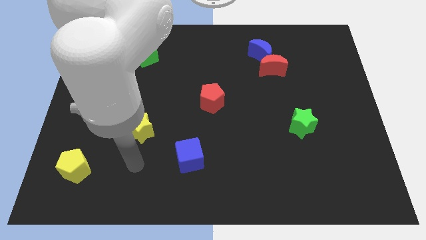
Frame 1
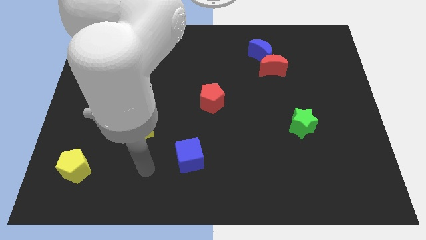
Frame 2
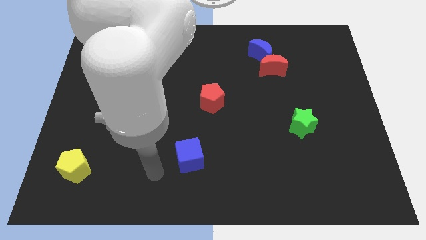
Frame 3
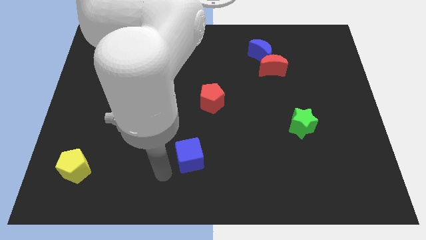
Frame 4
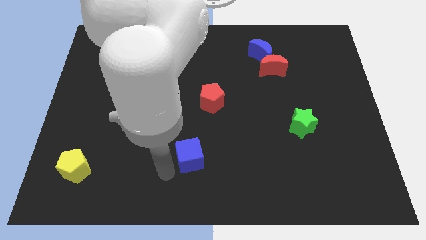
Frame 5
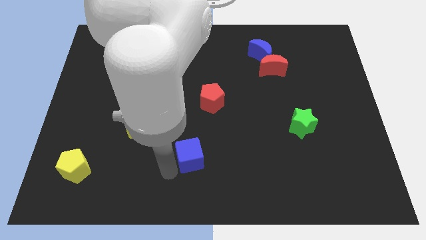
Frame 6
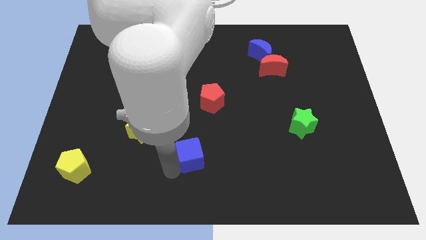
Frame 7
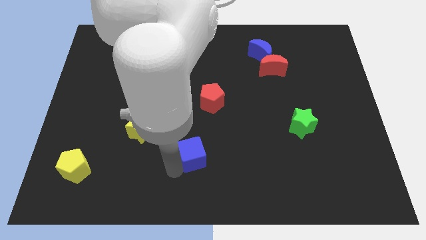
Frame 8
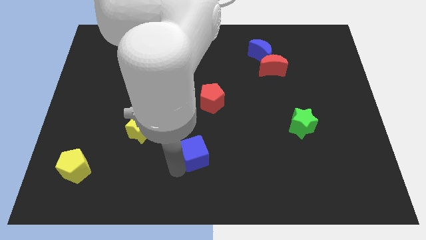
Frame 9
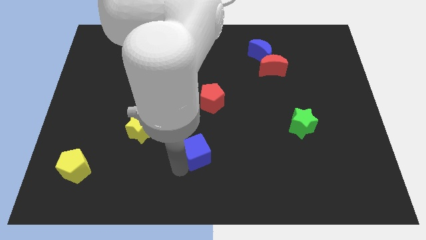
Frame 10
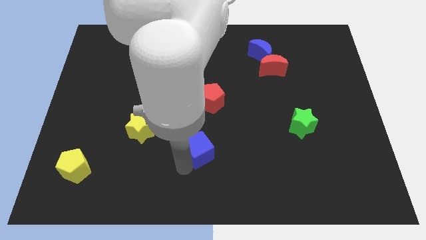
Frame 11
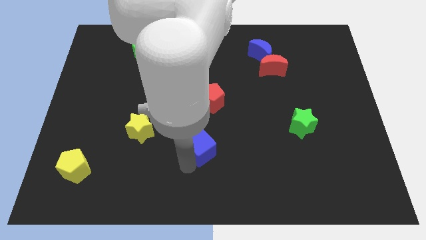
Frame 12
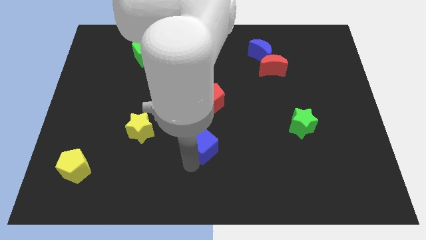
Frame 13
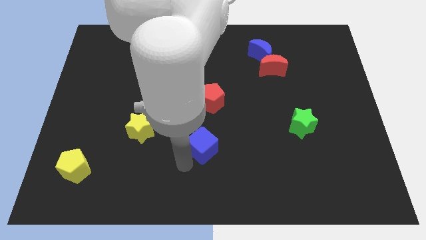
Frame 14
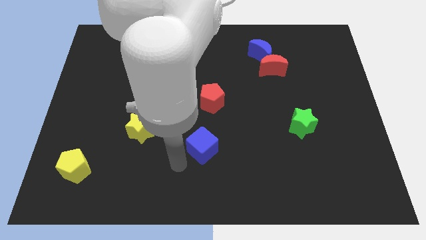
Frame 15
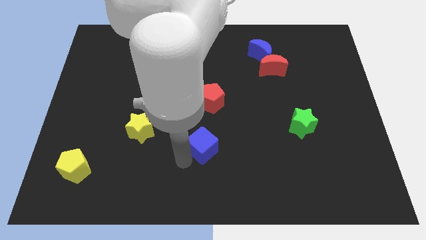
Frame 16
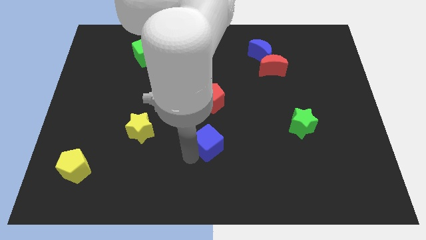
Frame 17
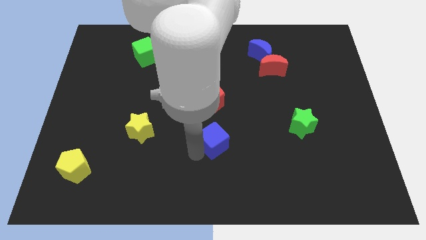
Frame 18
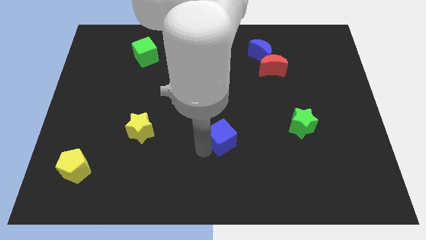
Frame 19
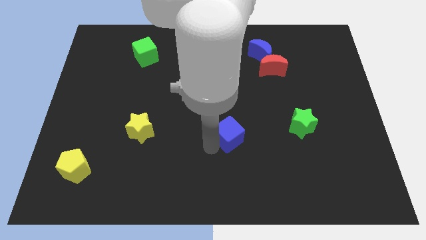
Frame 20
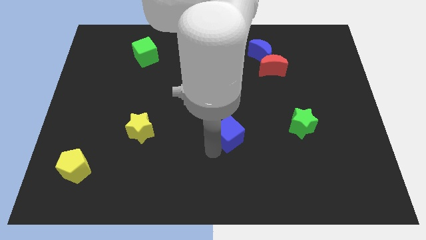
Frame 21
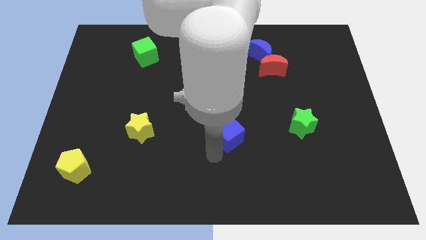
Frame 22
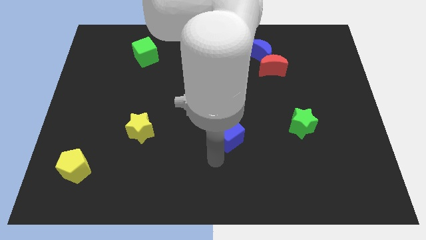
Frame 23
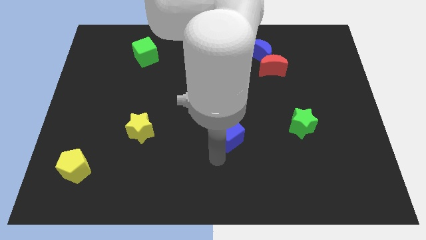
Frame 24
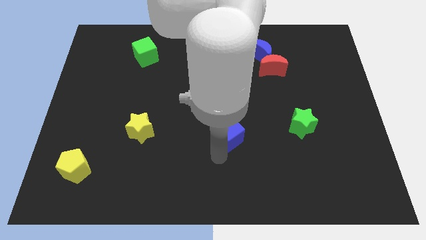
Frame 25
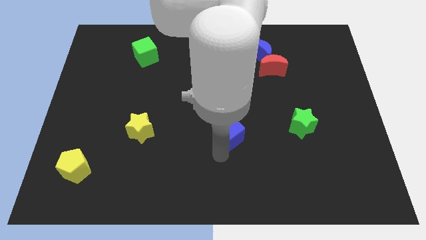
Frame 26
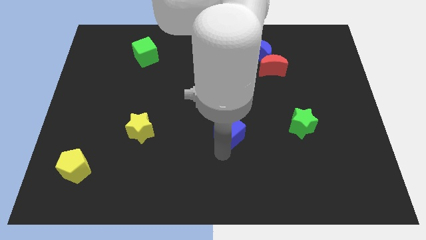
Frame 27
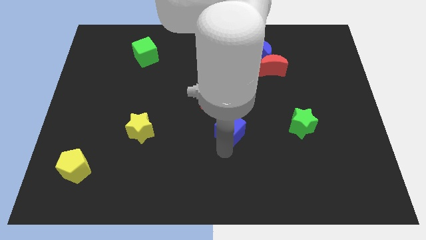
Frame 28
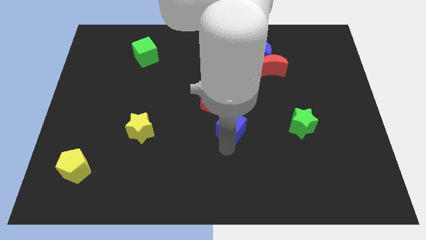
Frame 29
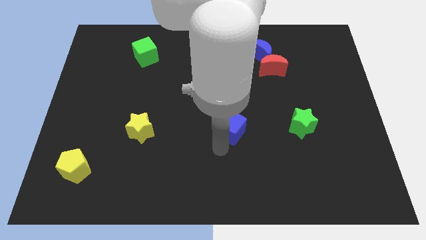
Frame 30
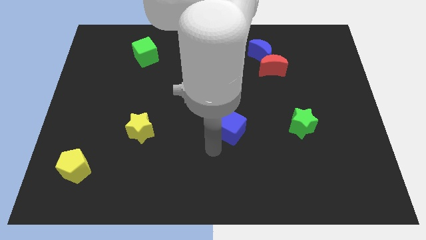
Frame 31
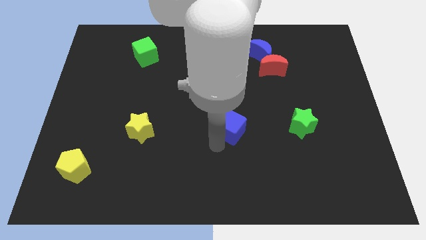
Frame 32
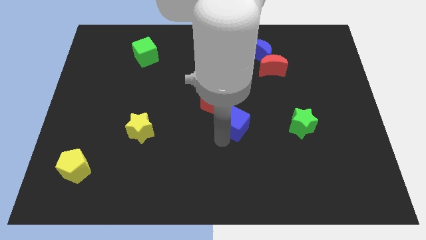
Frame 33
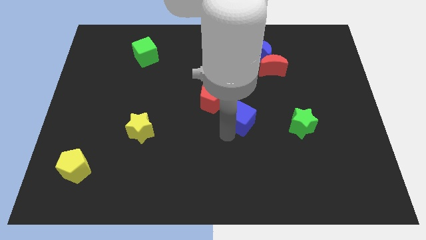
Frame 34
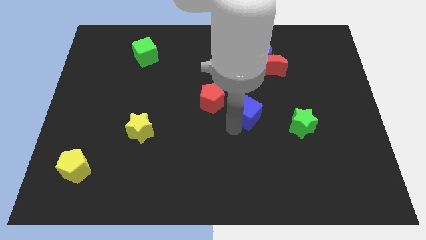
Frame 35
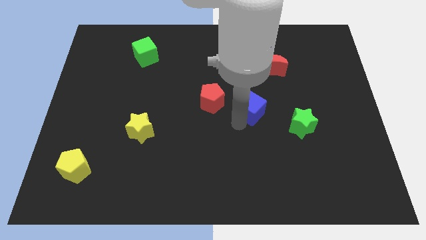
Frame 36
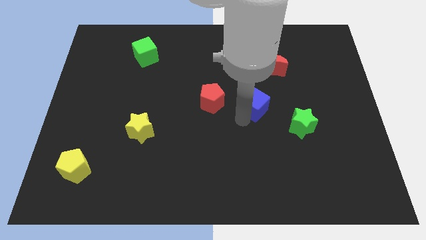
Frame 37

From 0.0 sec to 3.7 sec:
move the blue cube up and to the right diagonally

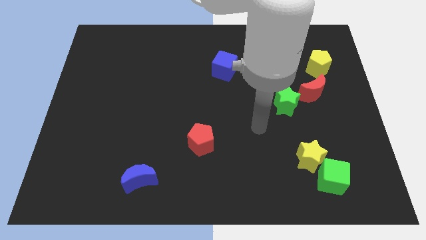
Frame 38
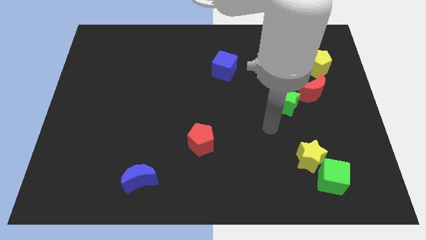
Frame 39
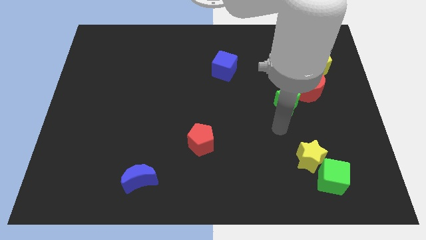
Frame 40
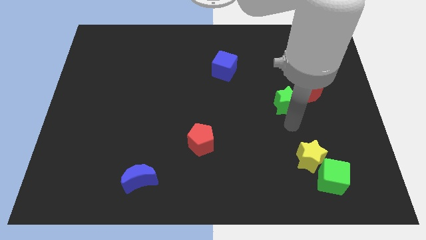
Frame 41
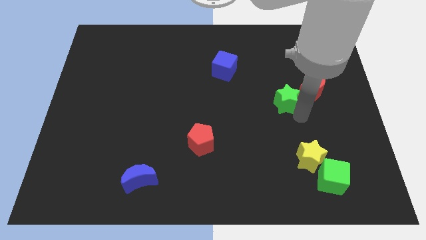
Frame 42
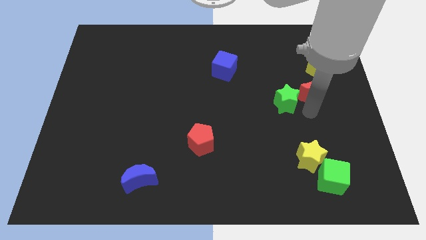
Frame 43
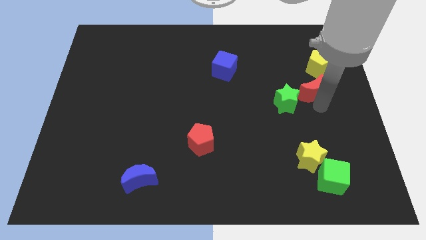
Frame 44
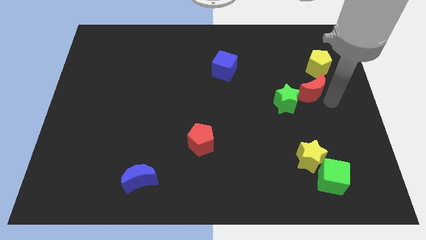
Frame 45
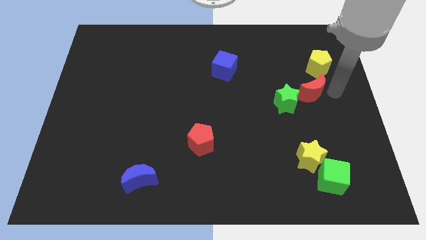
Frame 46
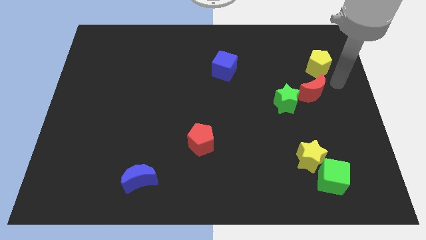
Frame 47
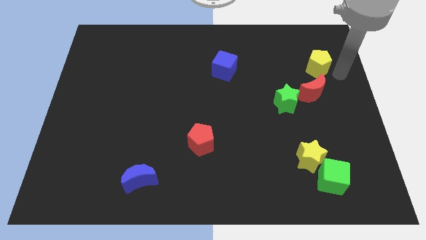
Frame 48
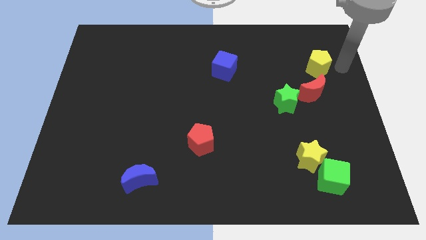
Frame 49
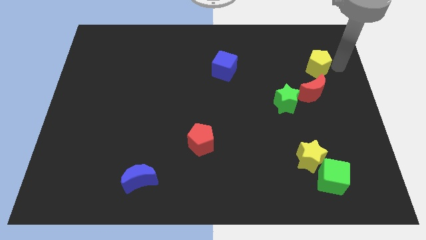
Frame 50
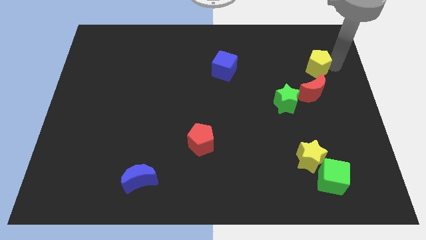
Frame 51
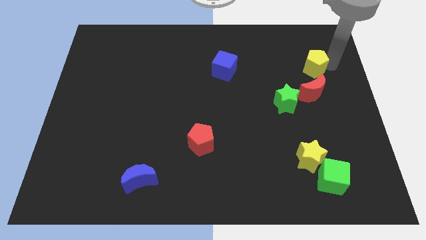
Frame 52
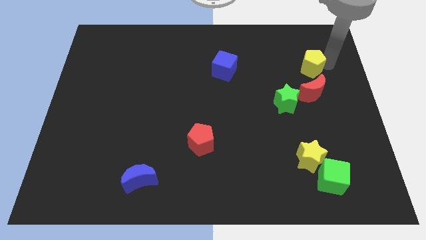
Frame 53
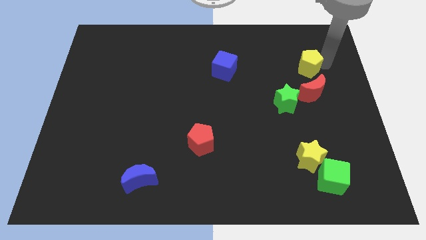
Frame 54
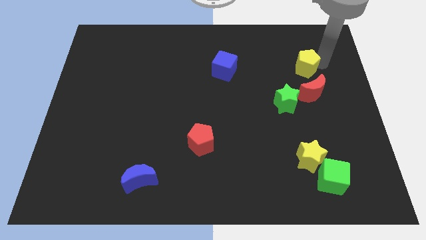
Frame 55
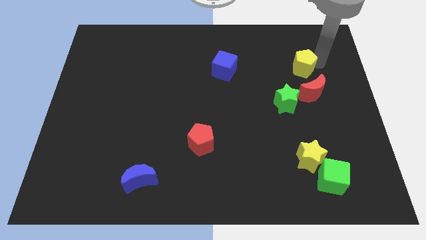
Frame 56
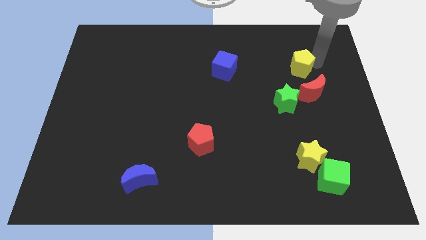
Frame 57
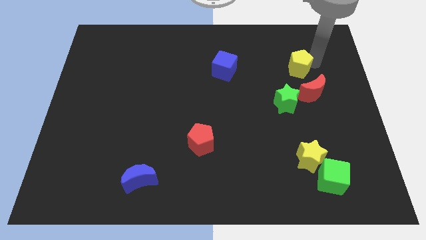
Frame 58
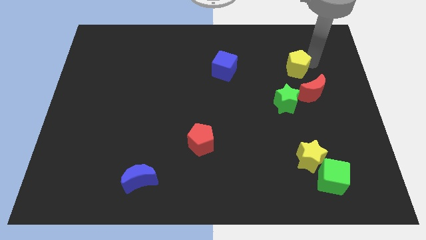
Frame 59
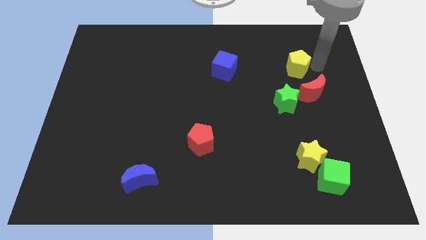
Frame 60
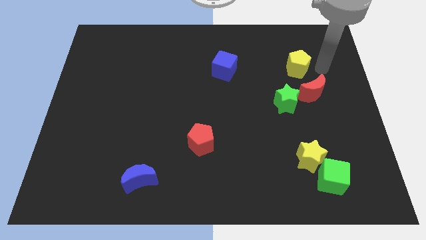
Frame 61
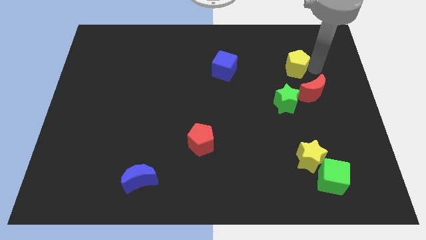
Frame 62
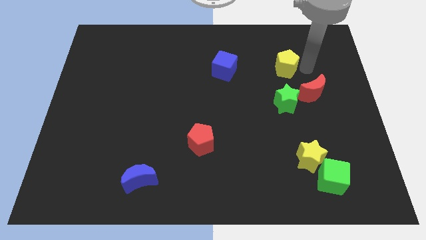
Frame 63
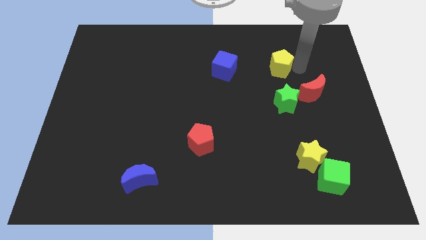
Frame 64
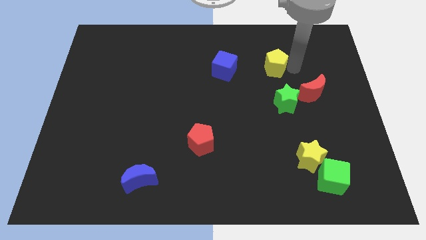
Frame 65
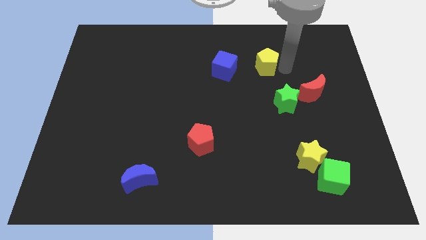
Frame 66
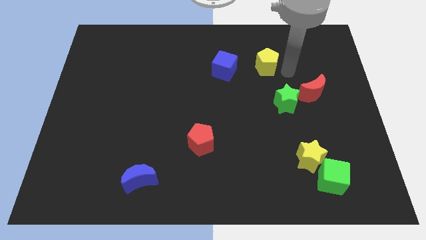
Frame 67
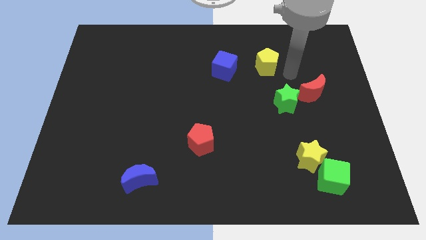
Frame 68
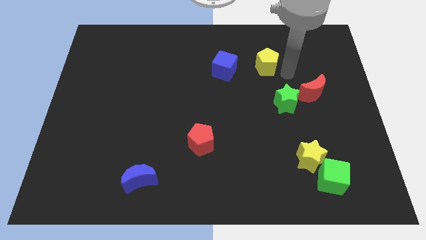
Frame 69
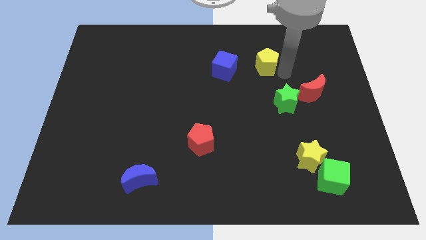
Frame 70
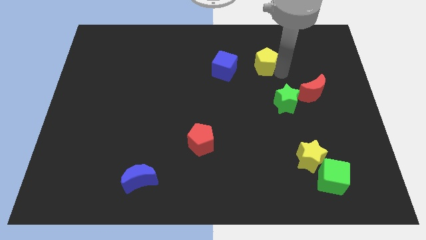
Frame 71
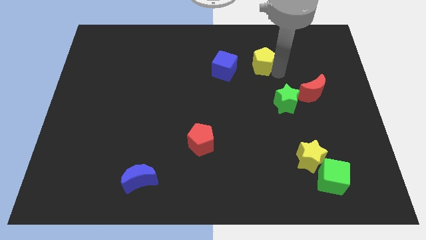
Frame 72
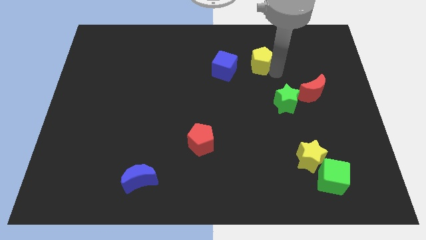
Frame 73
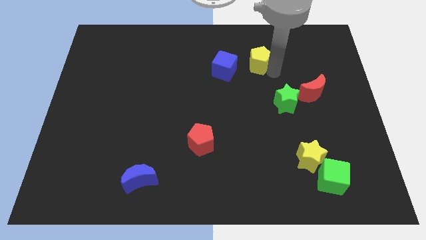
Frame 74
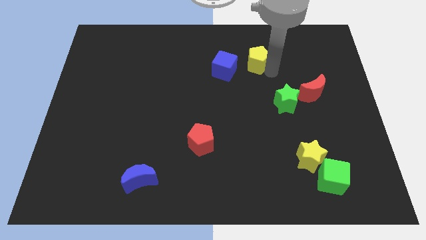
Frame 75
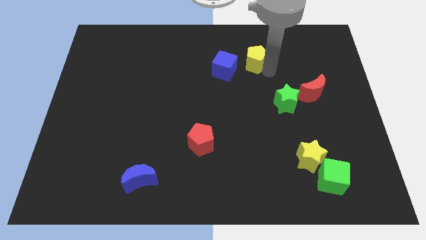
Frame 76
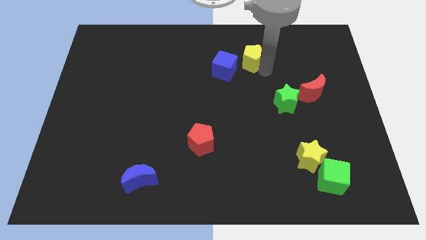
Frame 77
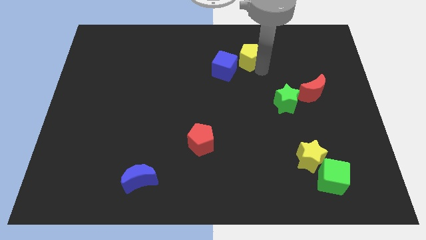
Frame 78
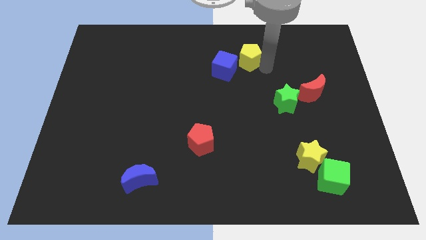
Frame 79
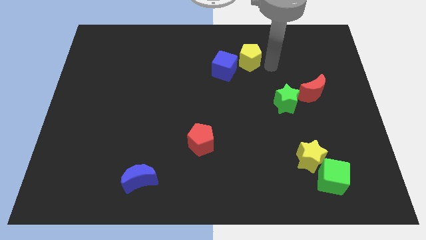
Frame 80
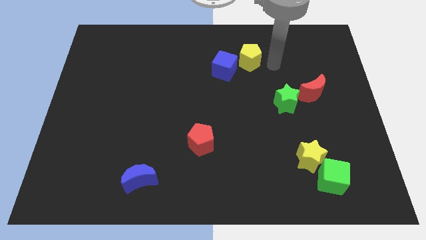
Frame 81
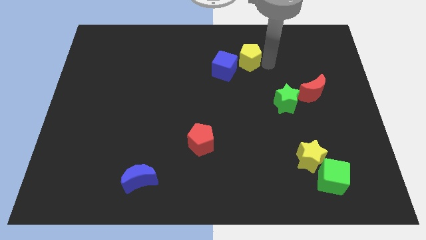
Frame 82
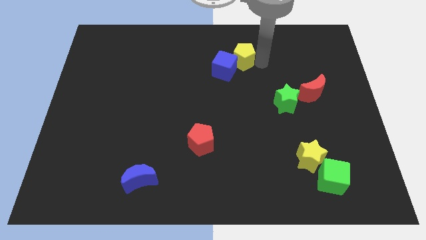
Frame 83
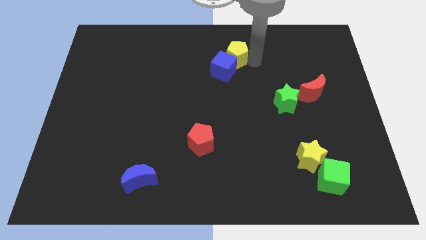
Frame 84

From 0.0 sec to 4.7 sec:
slide the yellow pentagon to the left
